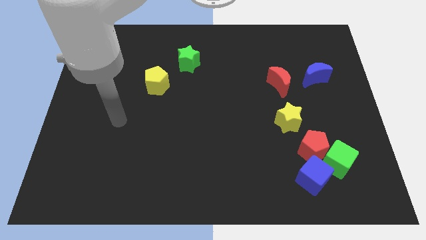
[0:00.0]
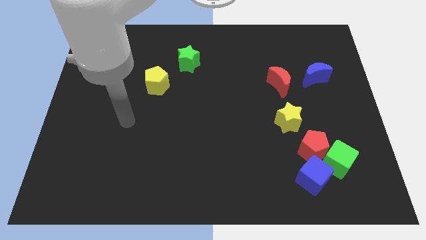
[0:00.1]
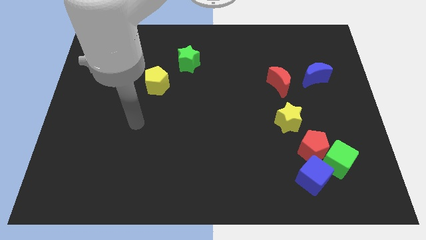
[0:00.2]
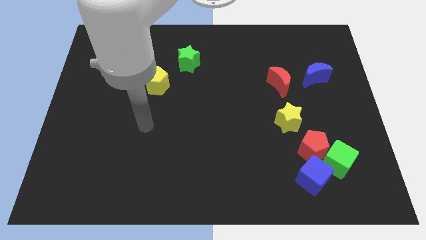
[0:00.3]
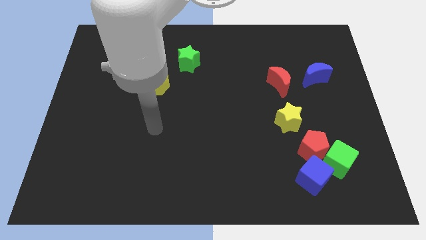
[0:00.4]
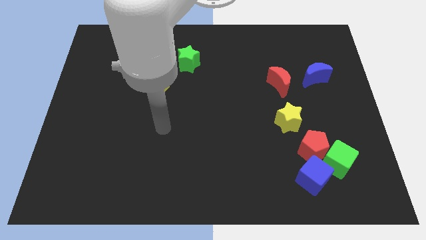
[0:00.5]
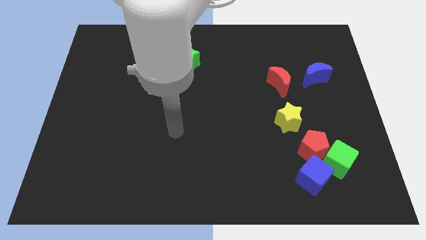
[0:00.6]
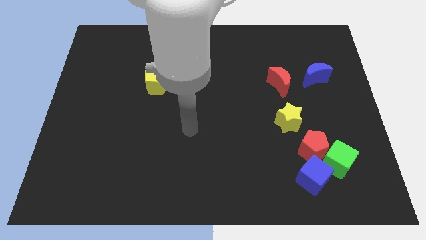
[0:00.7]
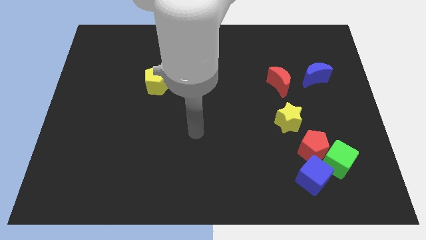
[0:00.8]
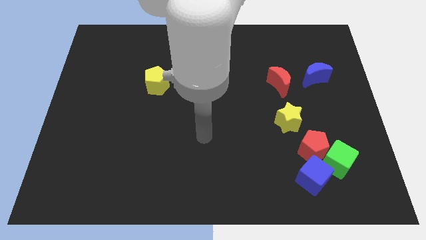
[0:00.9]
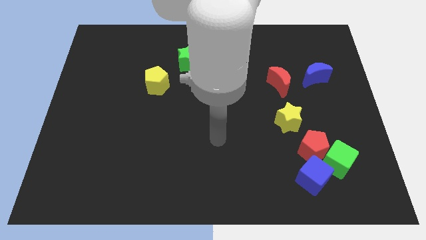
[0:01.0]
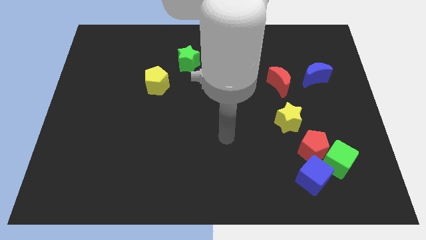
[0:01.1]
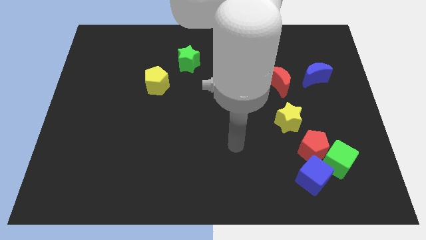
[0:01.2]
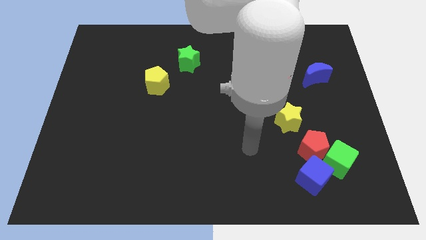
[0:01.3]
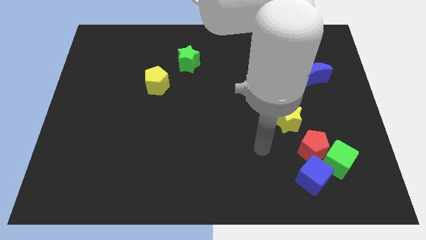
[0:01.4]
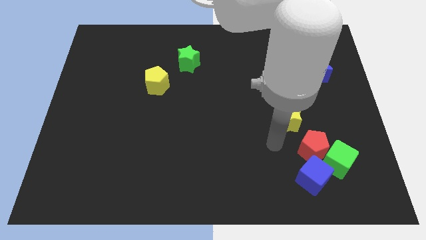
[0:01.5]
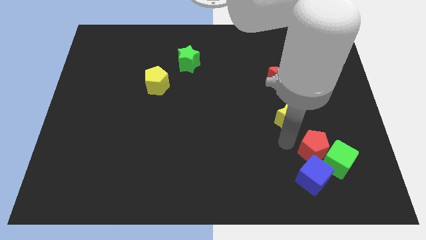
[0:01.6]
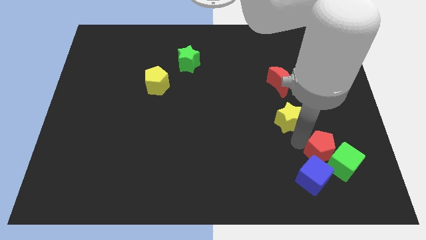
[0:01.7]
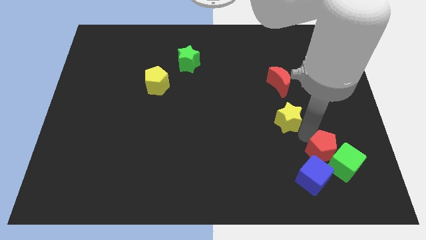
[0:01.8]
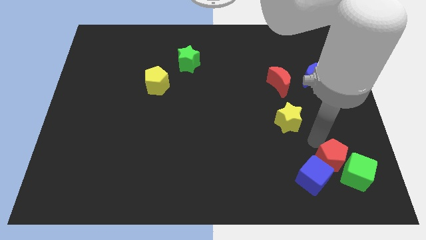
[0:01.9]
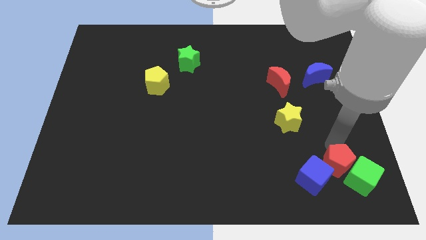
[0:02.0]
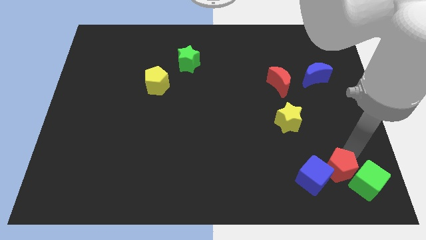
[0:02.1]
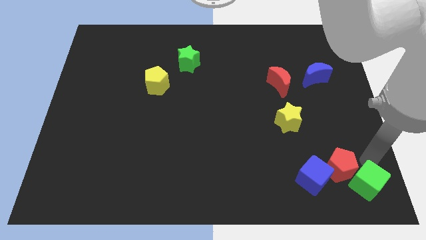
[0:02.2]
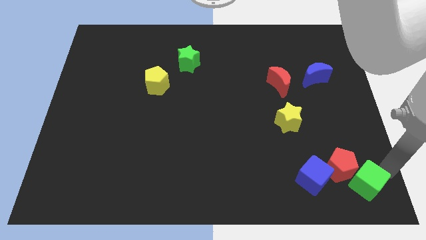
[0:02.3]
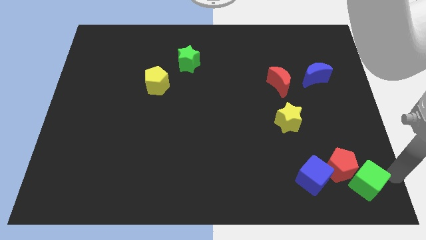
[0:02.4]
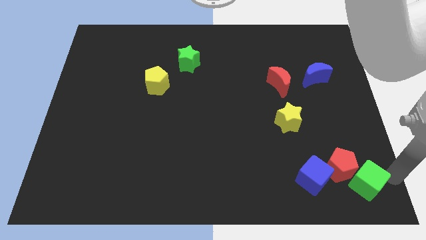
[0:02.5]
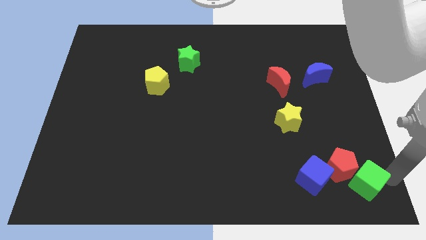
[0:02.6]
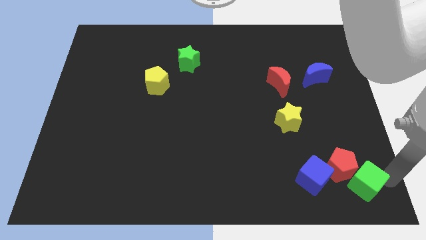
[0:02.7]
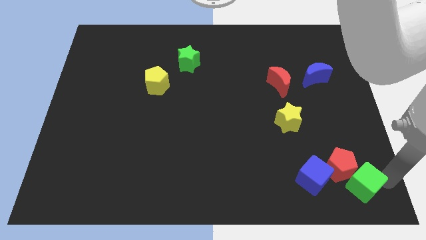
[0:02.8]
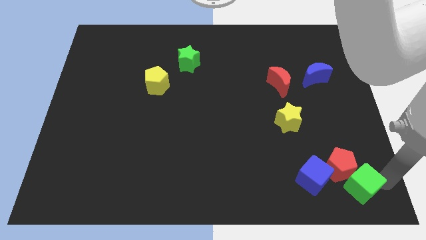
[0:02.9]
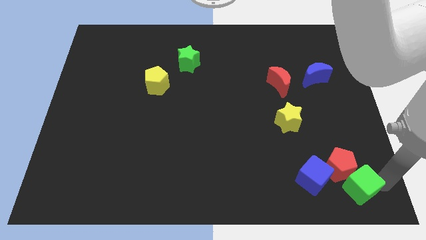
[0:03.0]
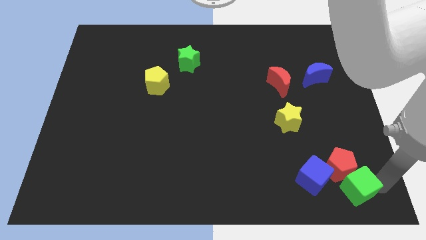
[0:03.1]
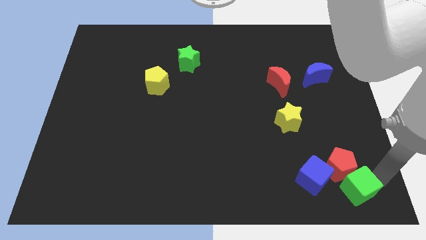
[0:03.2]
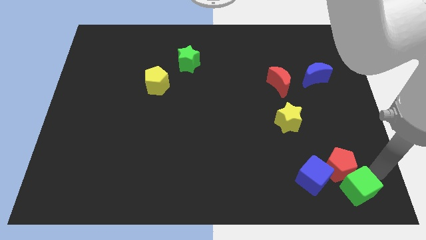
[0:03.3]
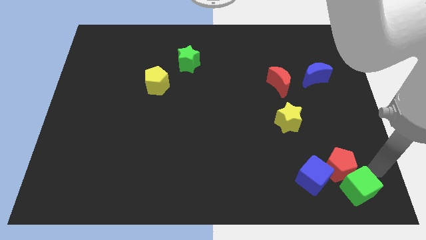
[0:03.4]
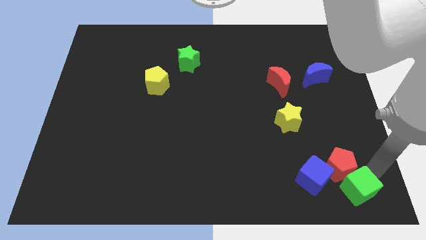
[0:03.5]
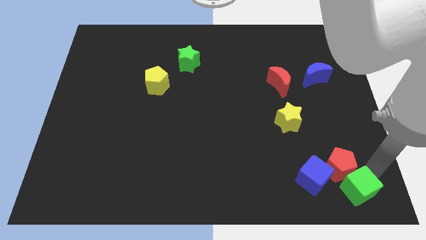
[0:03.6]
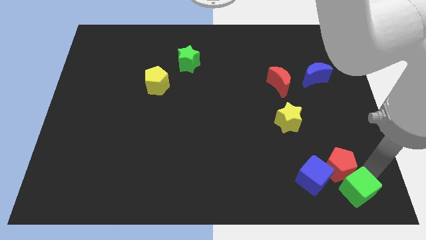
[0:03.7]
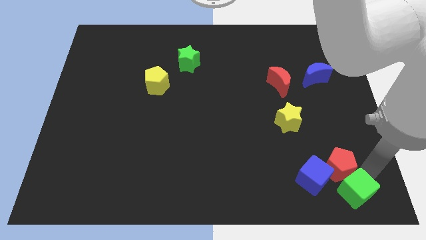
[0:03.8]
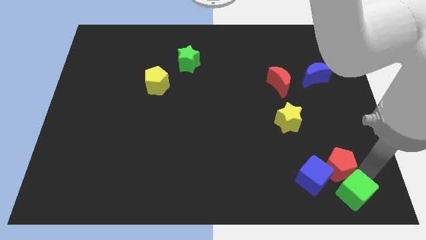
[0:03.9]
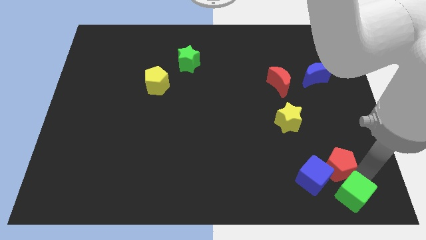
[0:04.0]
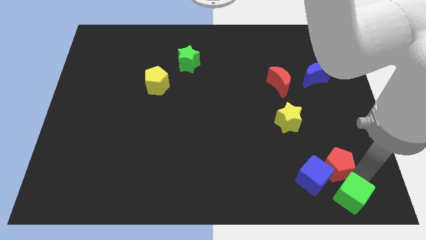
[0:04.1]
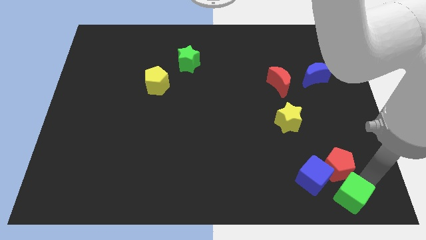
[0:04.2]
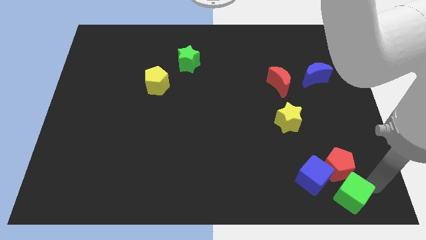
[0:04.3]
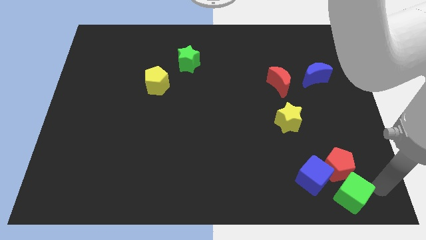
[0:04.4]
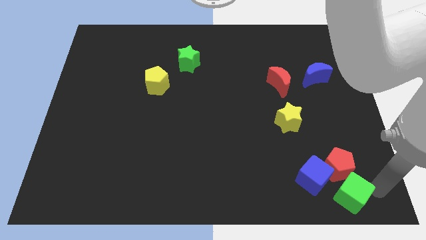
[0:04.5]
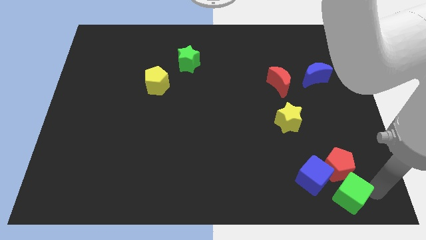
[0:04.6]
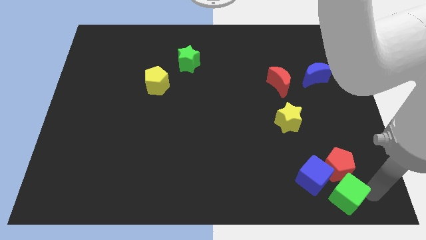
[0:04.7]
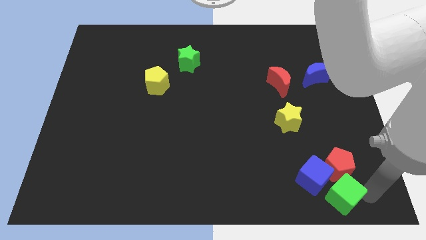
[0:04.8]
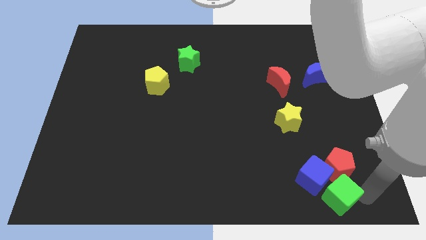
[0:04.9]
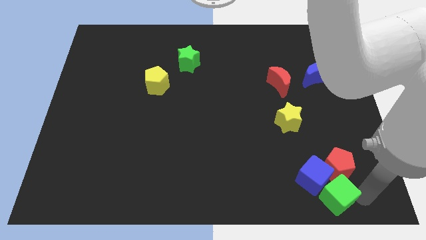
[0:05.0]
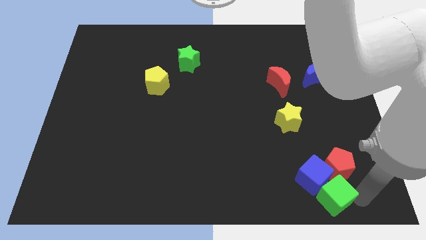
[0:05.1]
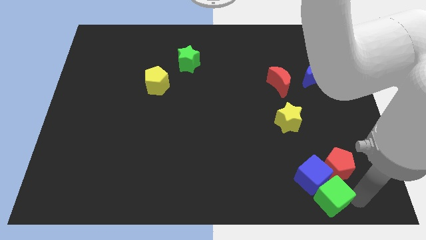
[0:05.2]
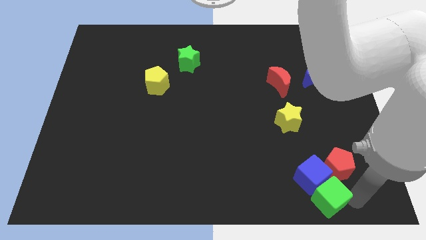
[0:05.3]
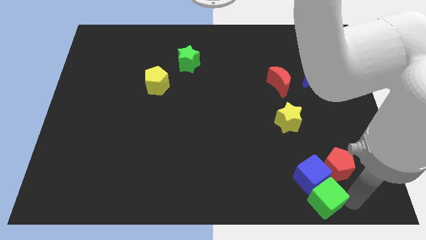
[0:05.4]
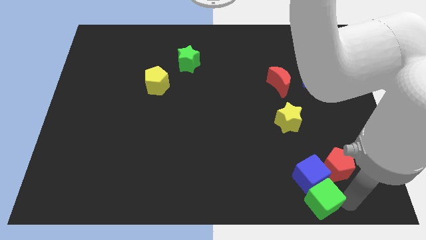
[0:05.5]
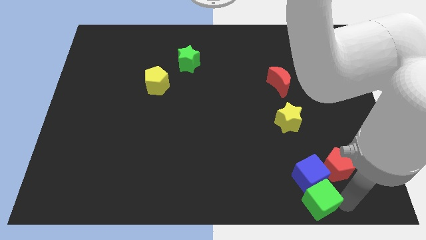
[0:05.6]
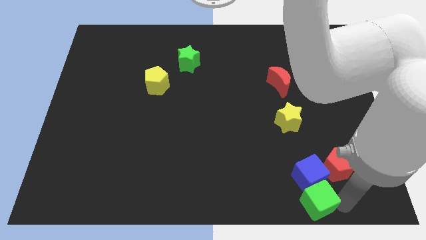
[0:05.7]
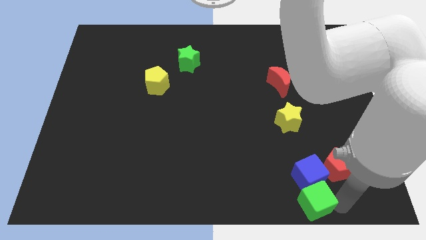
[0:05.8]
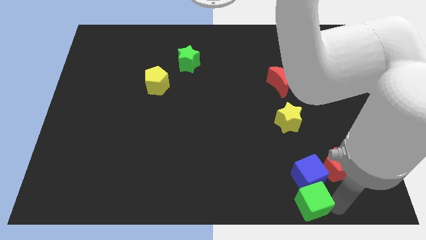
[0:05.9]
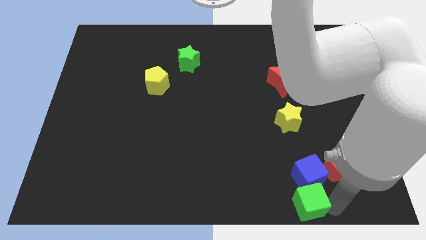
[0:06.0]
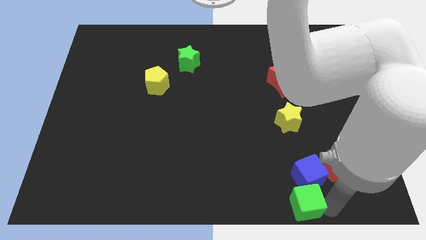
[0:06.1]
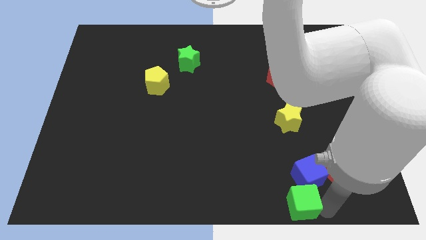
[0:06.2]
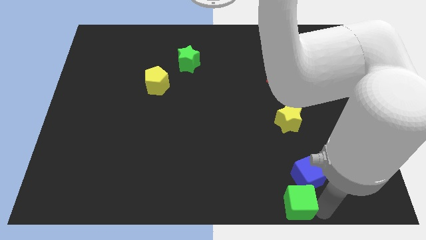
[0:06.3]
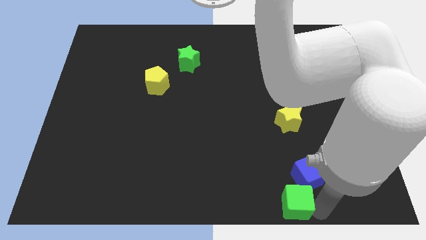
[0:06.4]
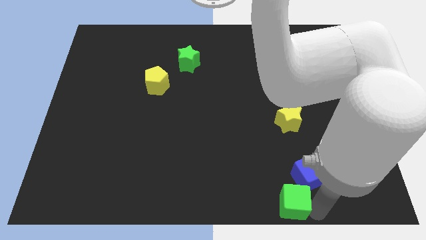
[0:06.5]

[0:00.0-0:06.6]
slide the green cube to the left a bit

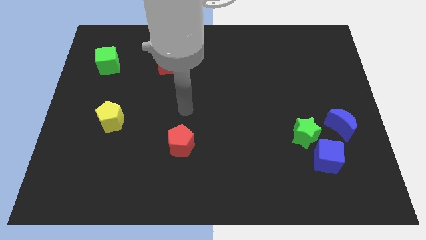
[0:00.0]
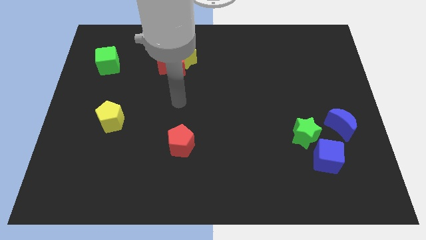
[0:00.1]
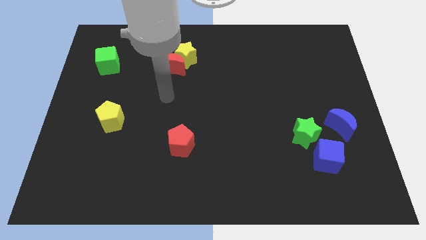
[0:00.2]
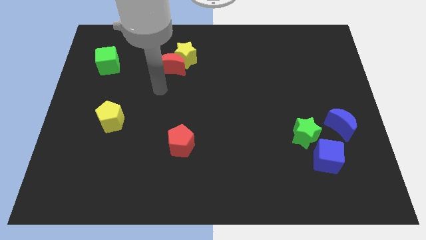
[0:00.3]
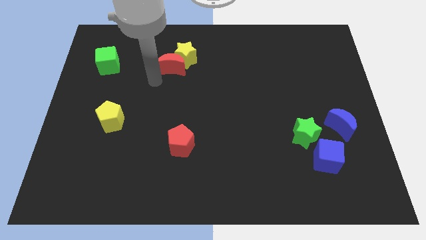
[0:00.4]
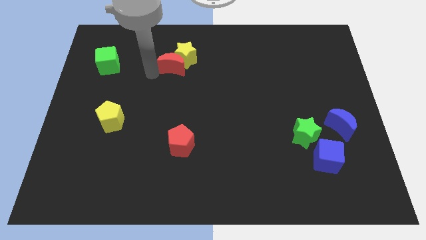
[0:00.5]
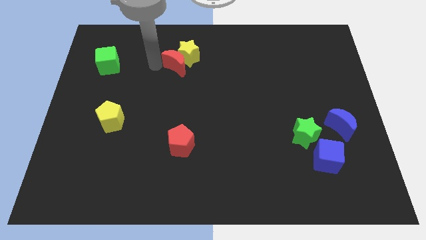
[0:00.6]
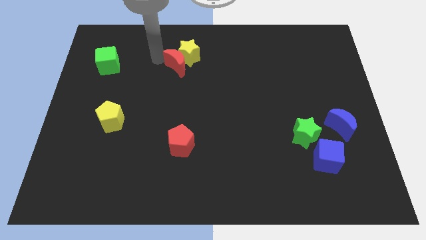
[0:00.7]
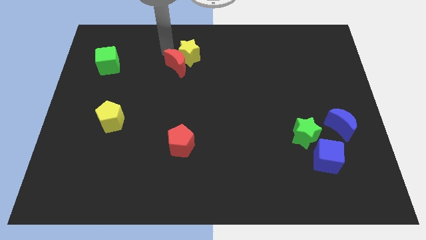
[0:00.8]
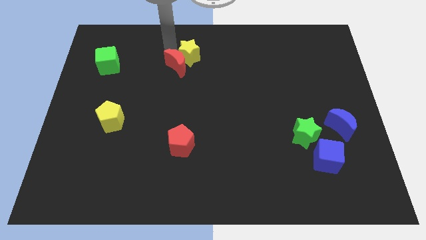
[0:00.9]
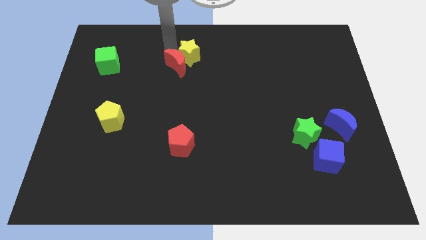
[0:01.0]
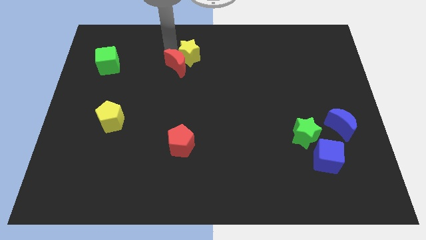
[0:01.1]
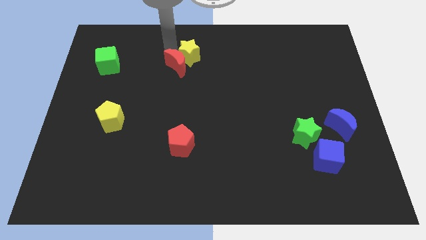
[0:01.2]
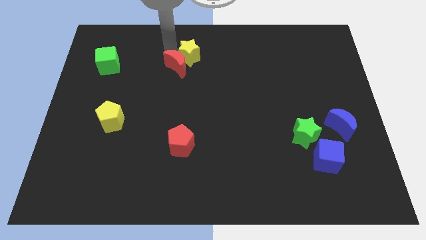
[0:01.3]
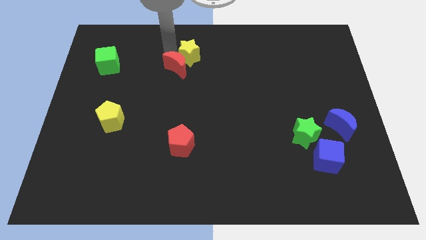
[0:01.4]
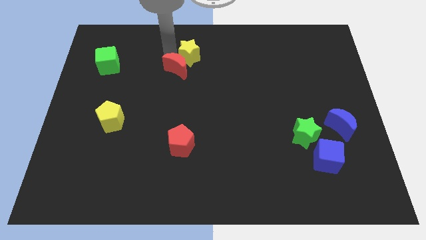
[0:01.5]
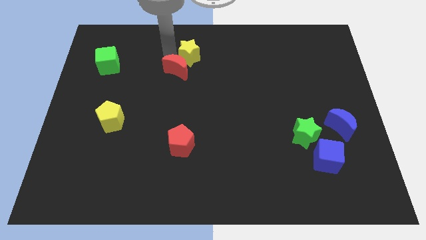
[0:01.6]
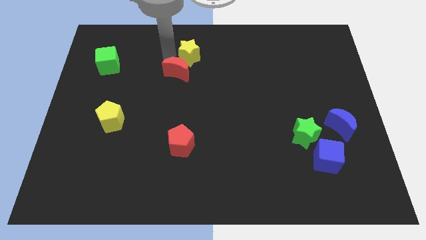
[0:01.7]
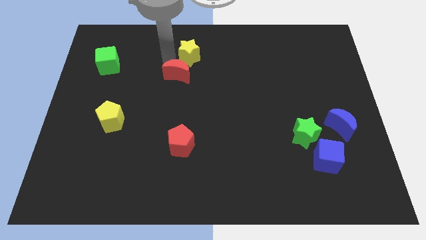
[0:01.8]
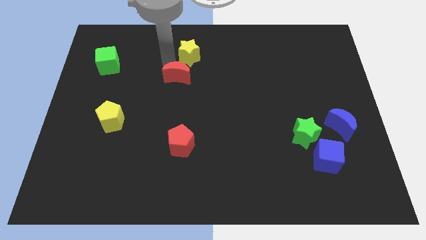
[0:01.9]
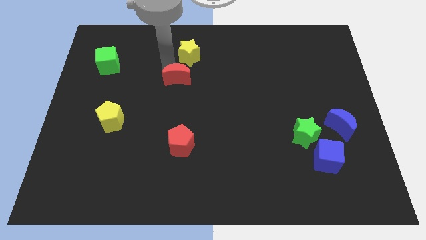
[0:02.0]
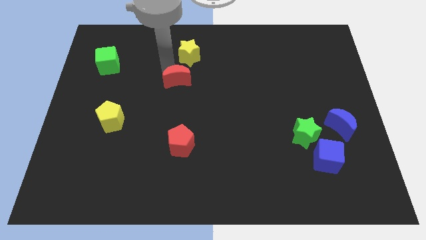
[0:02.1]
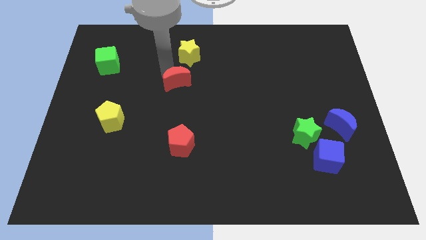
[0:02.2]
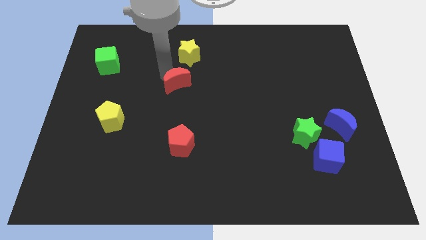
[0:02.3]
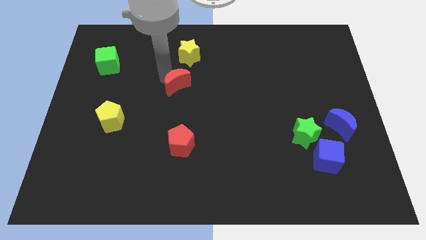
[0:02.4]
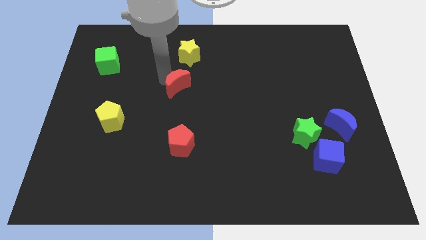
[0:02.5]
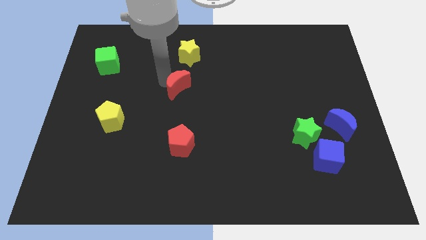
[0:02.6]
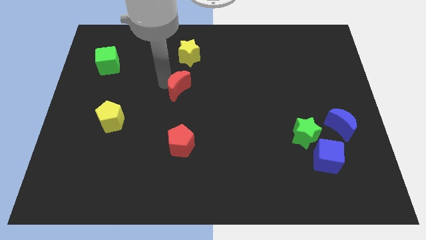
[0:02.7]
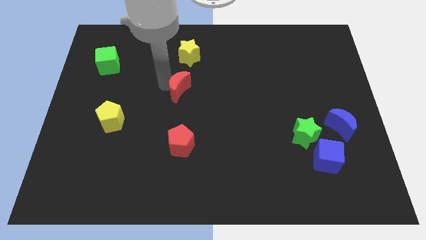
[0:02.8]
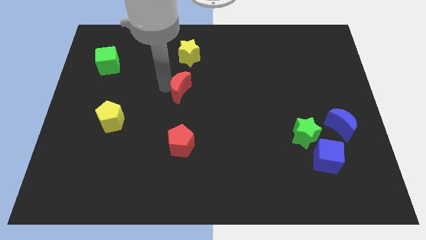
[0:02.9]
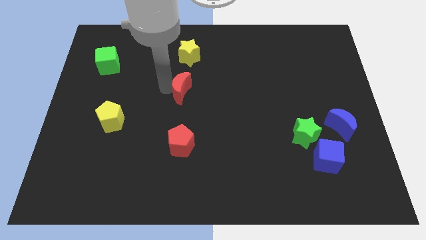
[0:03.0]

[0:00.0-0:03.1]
slide the red moon a bit diagonally downwards and to the right
